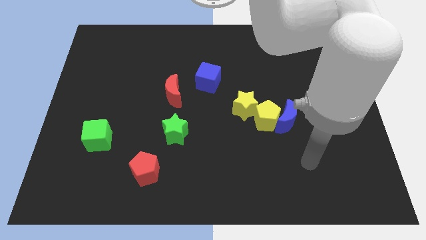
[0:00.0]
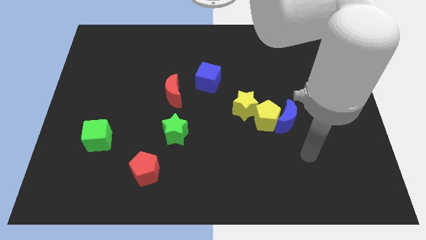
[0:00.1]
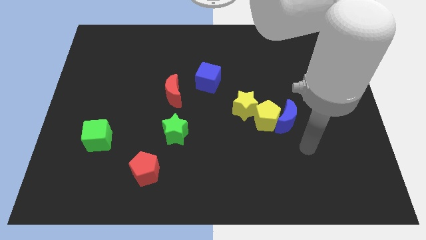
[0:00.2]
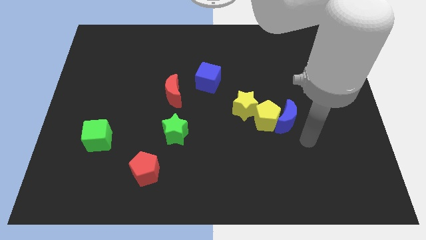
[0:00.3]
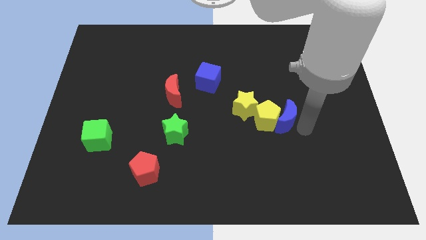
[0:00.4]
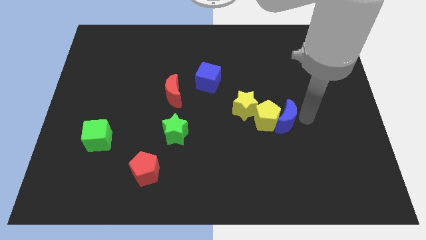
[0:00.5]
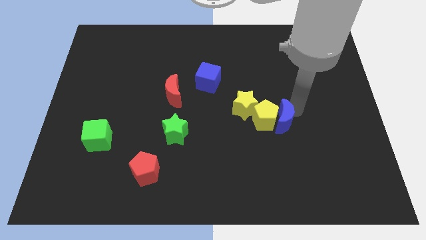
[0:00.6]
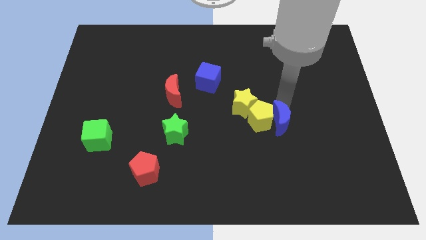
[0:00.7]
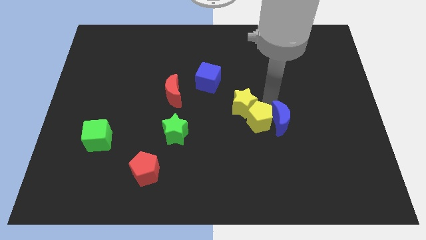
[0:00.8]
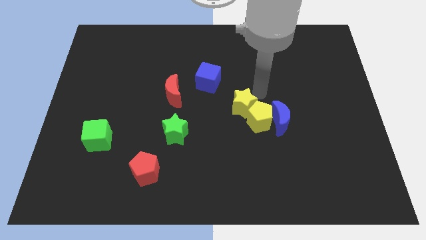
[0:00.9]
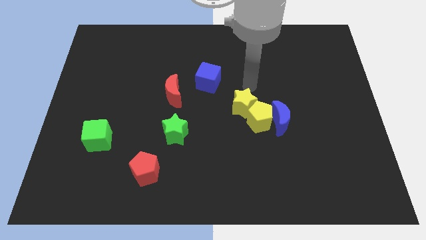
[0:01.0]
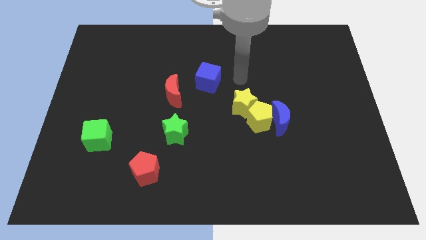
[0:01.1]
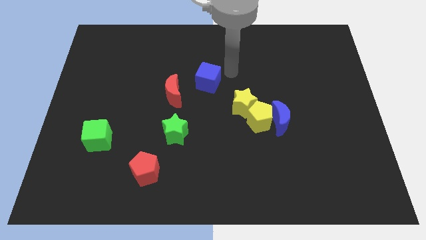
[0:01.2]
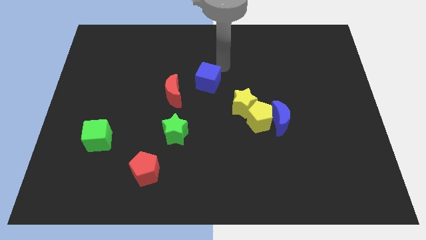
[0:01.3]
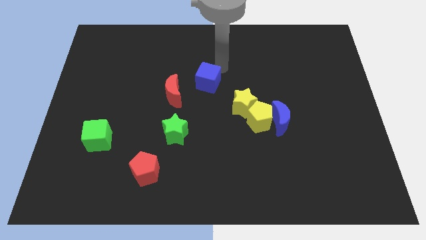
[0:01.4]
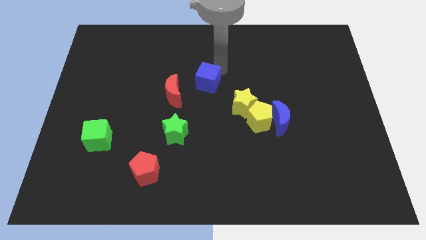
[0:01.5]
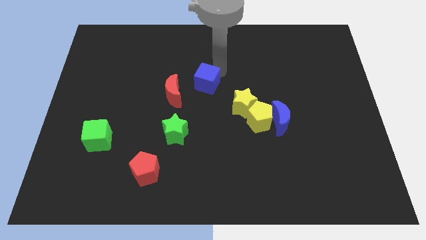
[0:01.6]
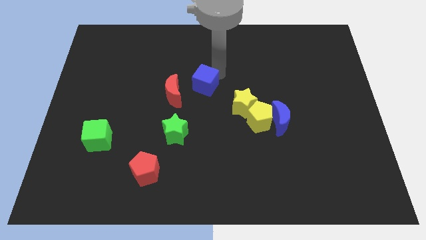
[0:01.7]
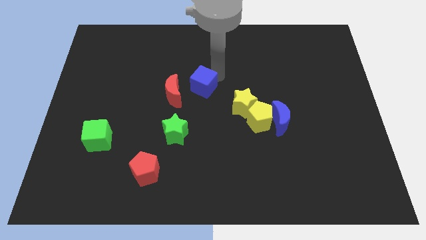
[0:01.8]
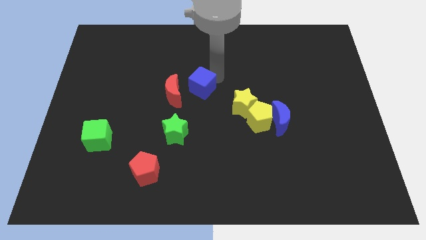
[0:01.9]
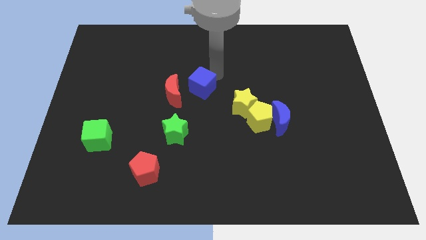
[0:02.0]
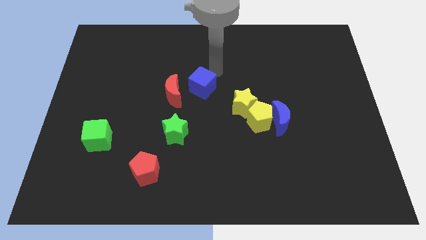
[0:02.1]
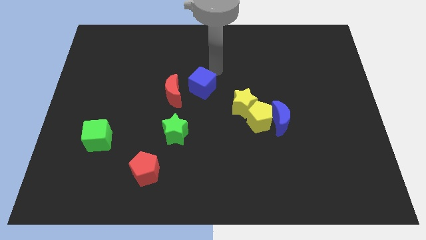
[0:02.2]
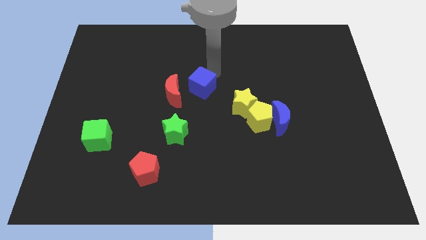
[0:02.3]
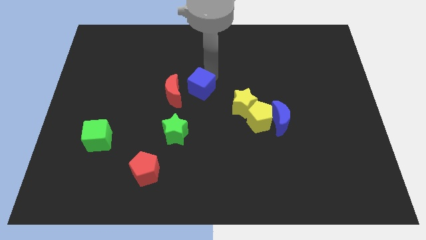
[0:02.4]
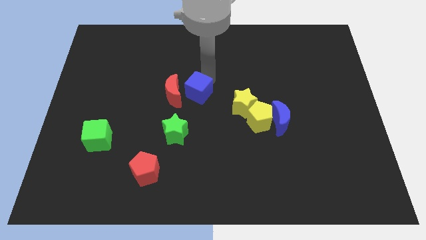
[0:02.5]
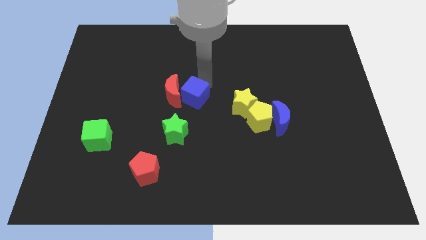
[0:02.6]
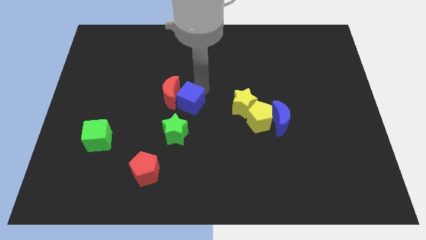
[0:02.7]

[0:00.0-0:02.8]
move the blue cube downwards and then to the left somewhat

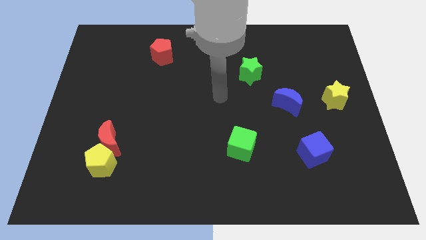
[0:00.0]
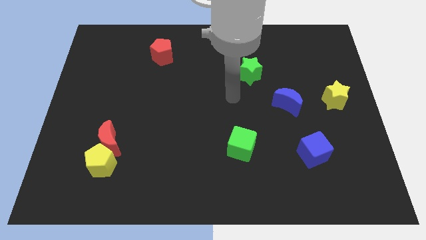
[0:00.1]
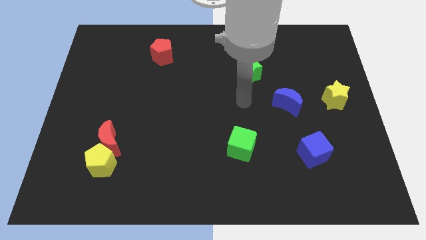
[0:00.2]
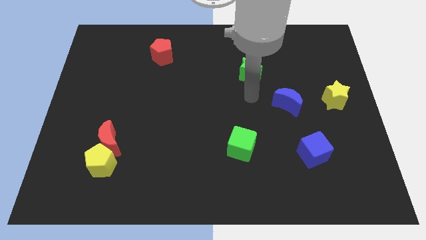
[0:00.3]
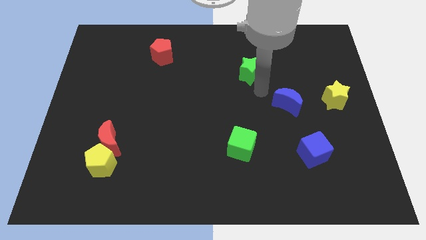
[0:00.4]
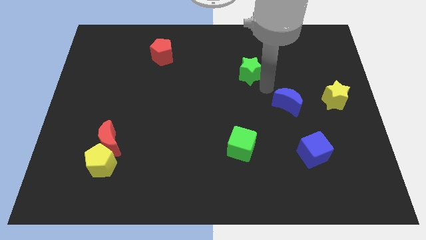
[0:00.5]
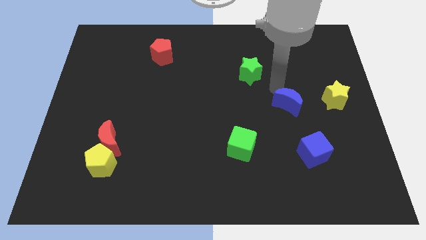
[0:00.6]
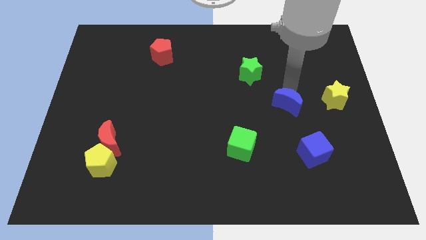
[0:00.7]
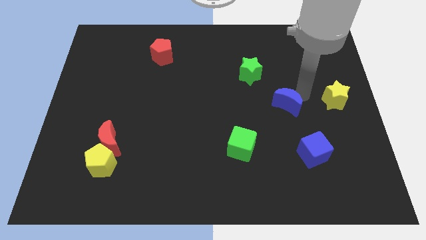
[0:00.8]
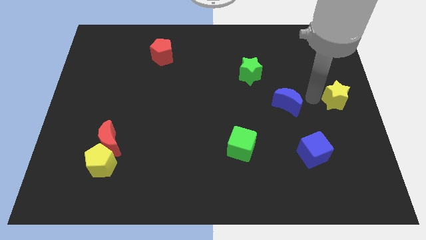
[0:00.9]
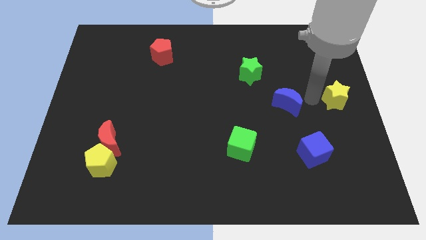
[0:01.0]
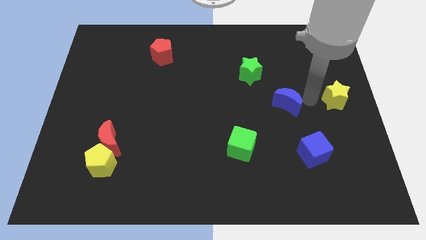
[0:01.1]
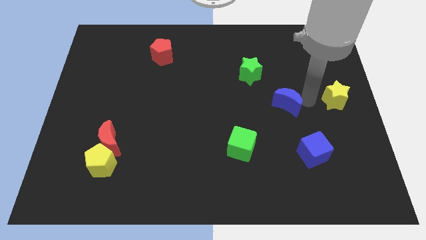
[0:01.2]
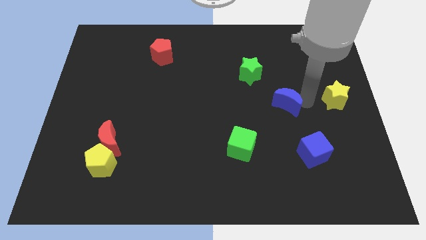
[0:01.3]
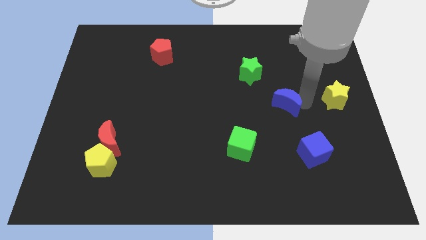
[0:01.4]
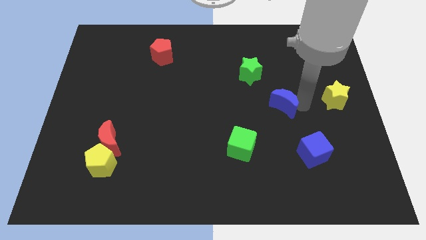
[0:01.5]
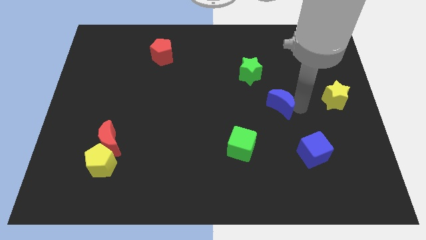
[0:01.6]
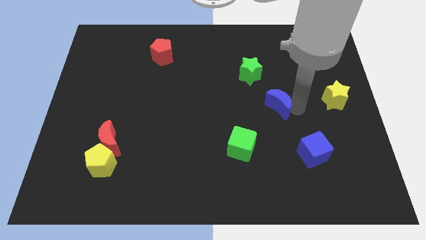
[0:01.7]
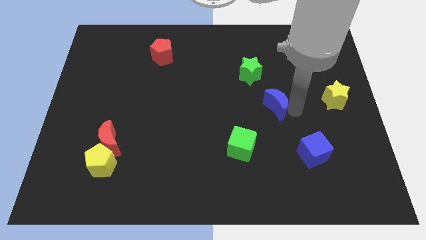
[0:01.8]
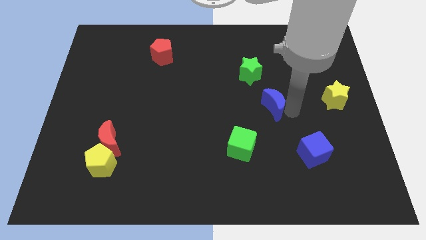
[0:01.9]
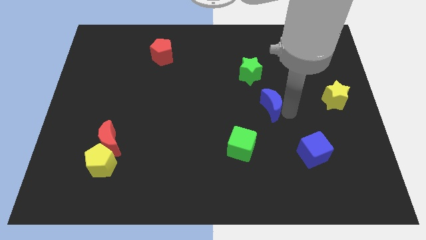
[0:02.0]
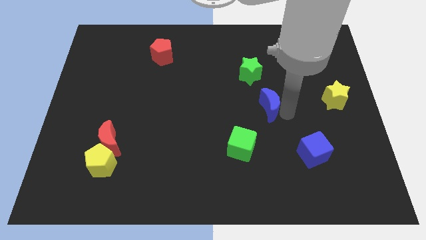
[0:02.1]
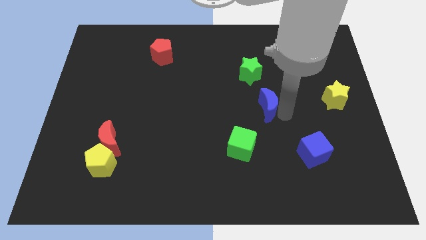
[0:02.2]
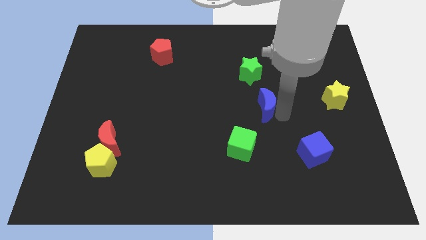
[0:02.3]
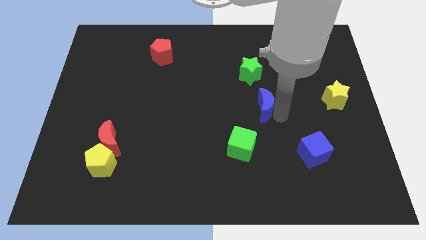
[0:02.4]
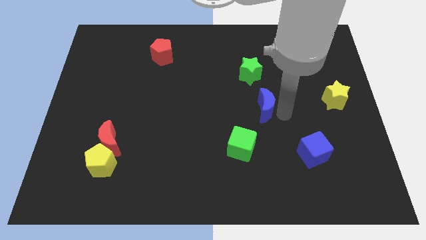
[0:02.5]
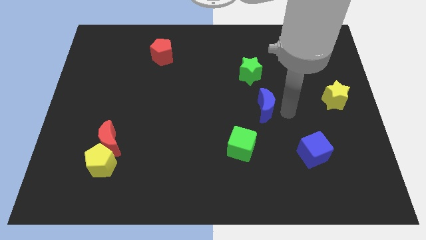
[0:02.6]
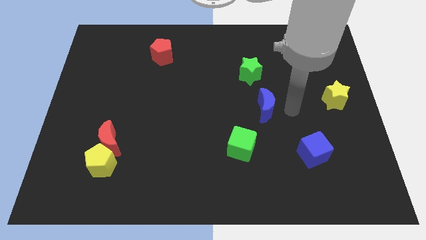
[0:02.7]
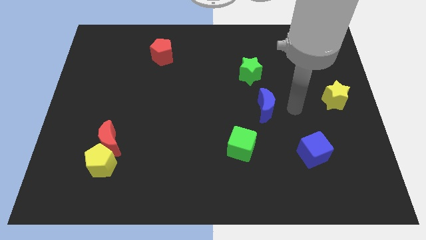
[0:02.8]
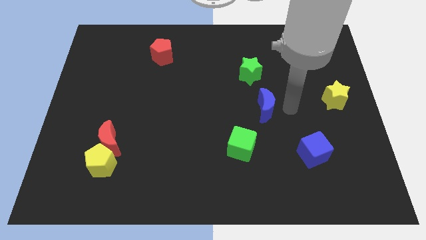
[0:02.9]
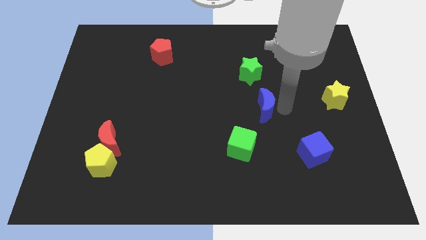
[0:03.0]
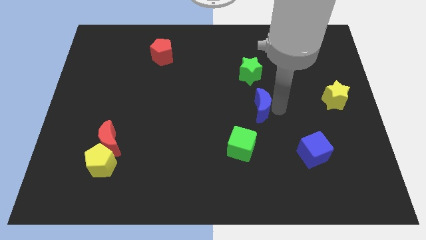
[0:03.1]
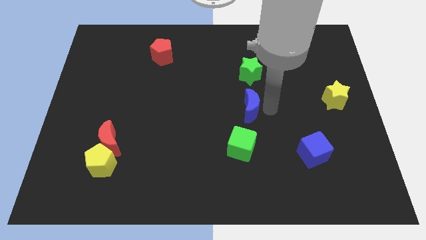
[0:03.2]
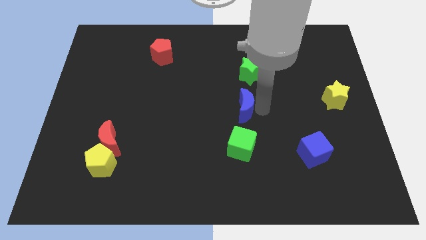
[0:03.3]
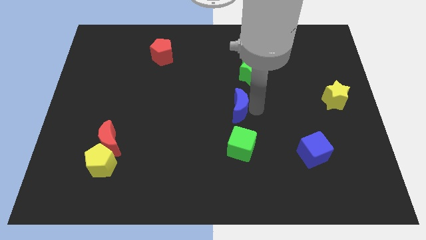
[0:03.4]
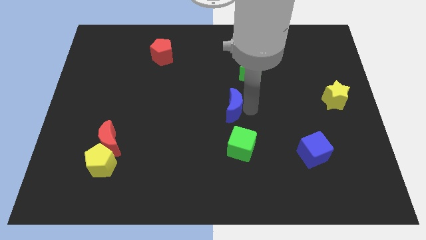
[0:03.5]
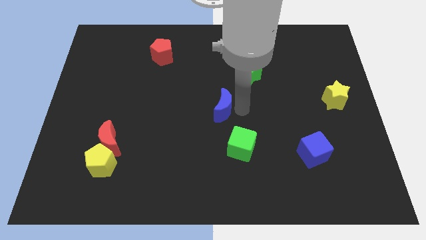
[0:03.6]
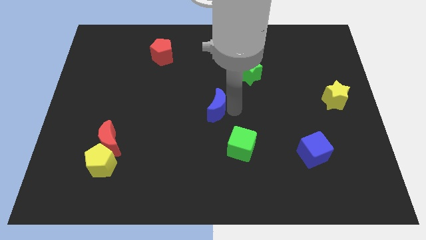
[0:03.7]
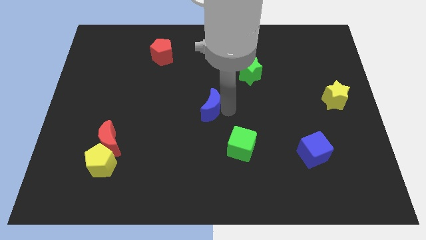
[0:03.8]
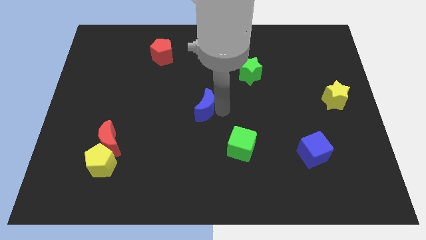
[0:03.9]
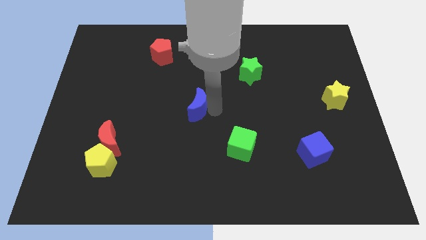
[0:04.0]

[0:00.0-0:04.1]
slide the blue moon left

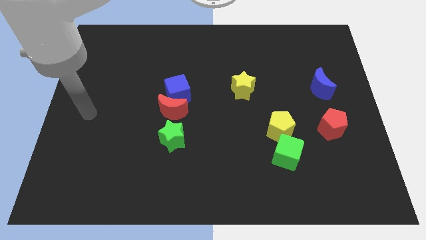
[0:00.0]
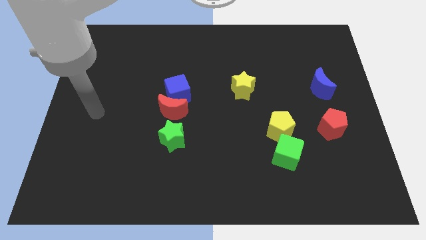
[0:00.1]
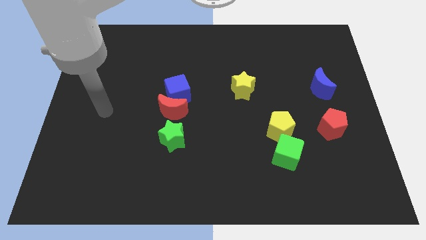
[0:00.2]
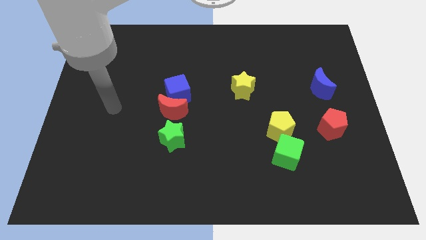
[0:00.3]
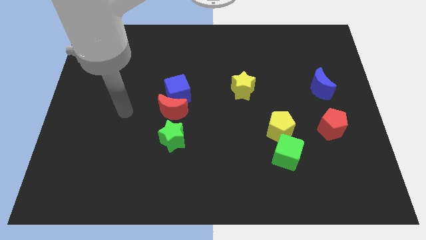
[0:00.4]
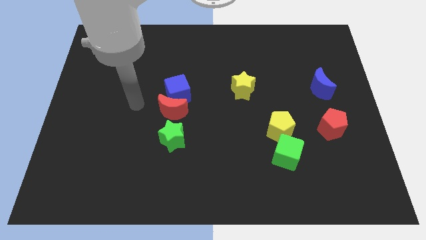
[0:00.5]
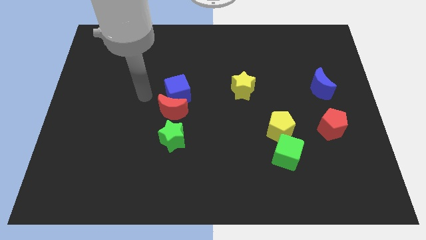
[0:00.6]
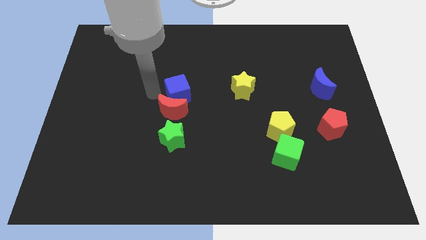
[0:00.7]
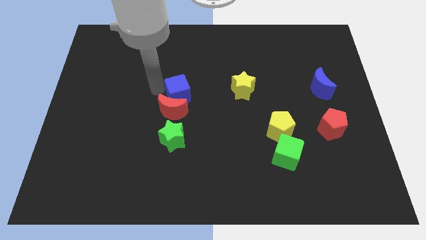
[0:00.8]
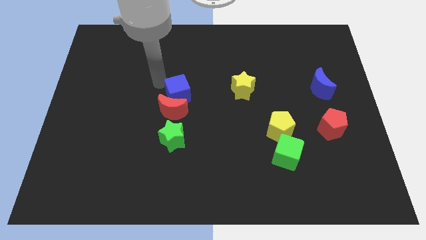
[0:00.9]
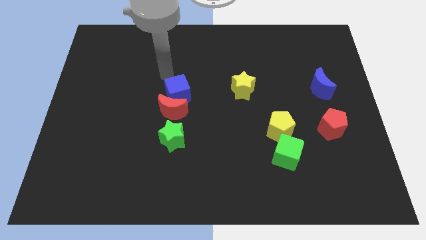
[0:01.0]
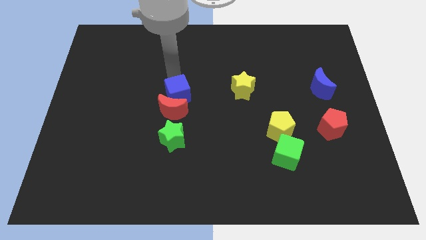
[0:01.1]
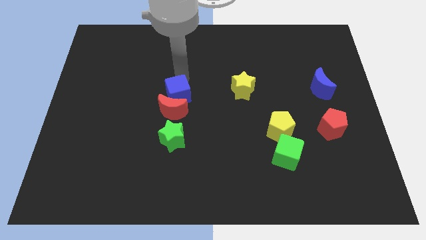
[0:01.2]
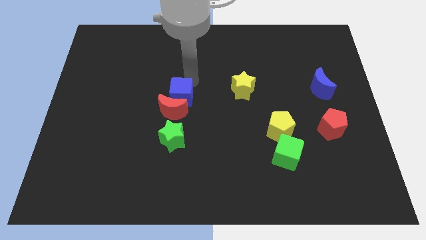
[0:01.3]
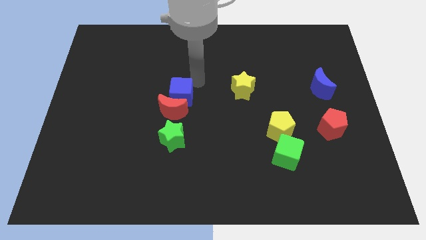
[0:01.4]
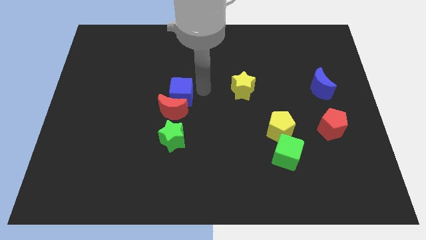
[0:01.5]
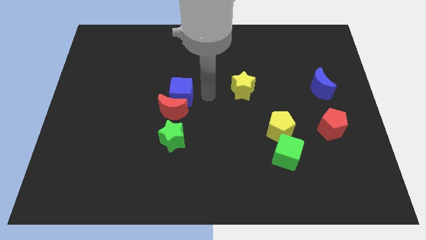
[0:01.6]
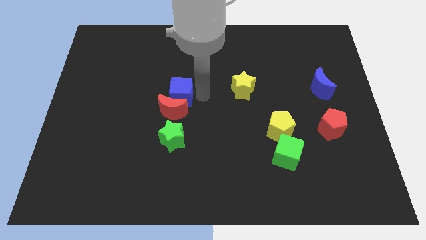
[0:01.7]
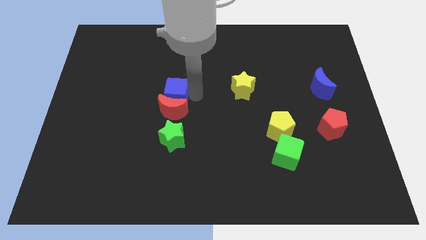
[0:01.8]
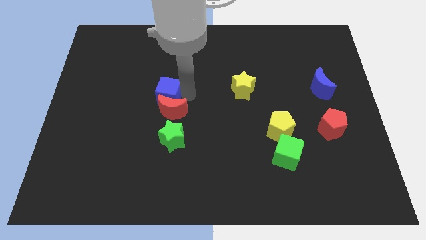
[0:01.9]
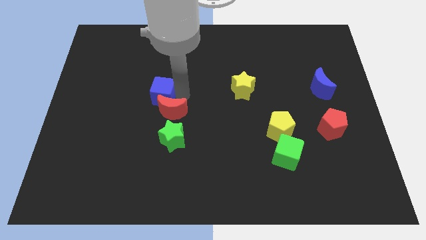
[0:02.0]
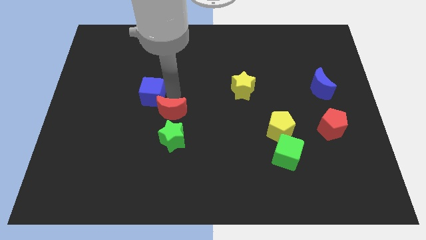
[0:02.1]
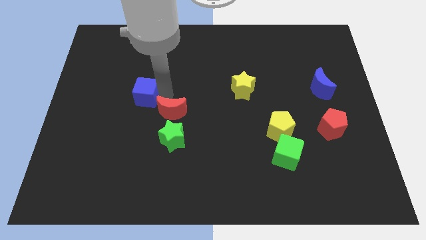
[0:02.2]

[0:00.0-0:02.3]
move the blue cube a little bit left
